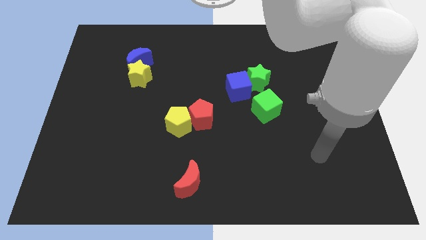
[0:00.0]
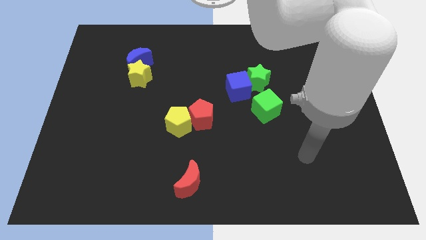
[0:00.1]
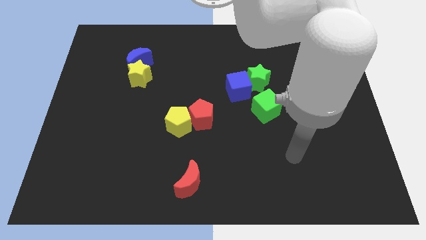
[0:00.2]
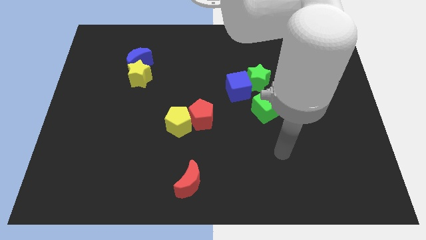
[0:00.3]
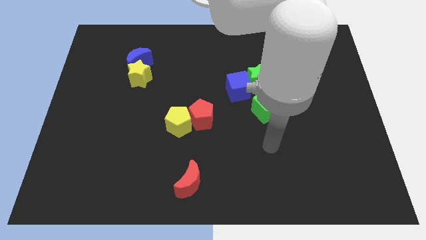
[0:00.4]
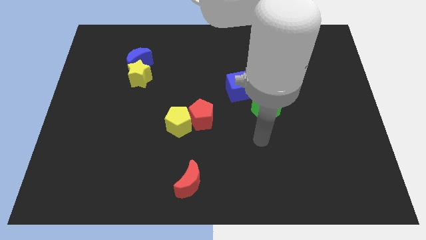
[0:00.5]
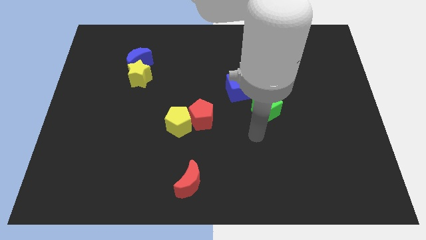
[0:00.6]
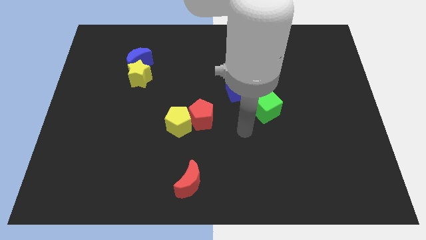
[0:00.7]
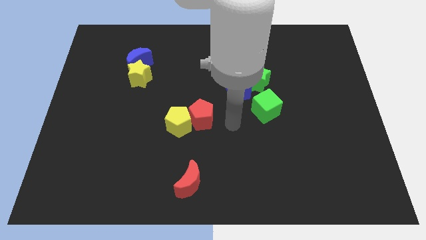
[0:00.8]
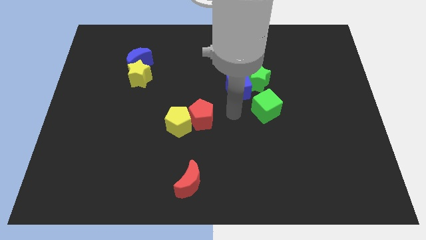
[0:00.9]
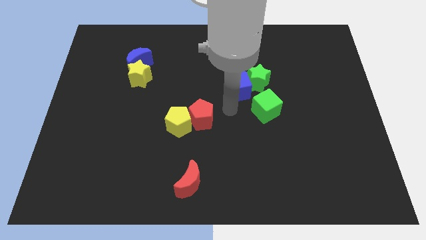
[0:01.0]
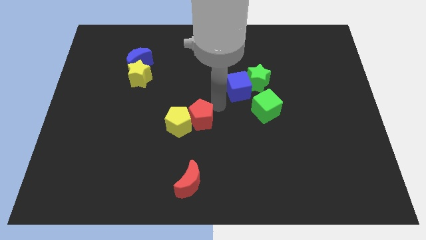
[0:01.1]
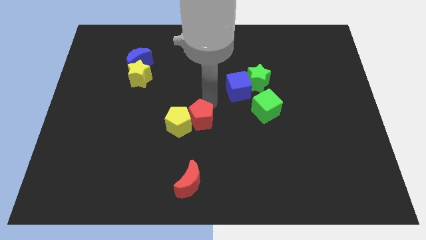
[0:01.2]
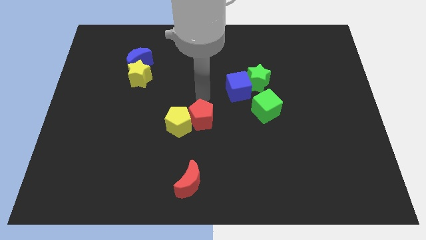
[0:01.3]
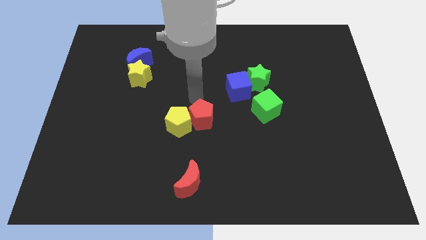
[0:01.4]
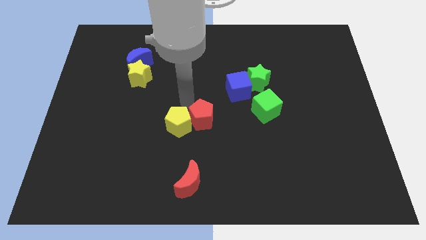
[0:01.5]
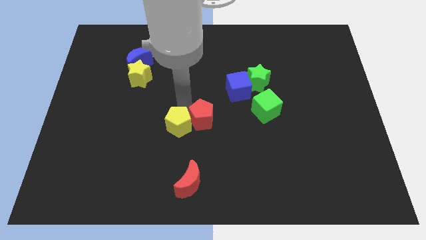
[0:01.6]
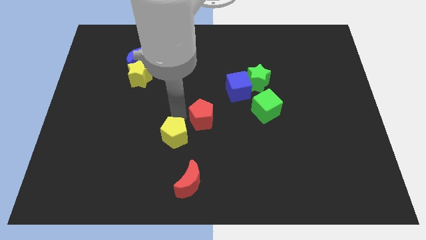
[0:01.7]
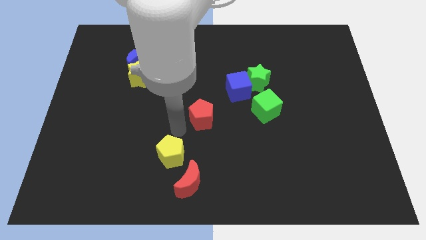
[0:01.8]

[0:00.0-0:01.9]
move the red pentagon away from the yellow pentagon

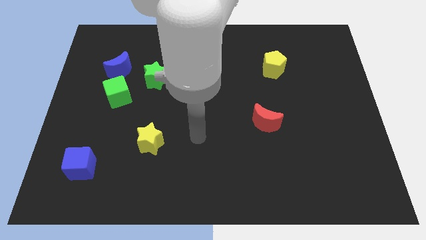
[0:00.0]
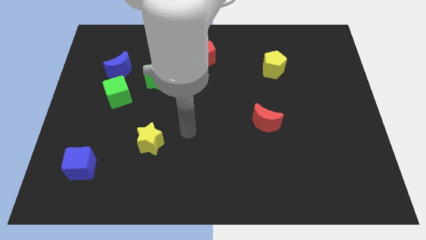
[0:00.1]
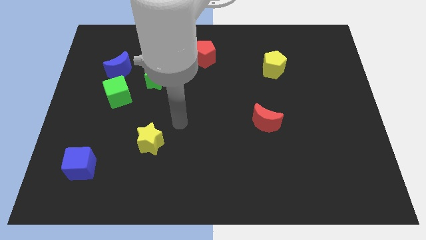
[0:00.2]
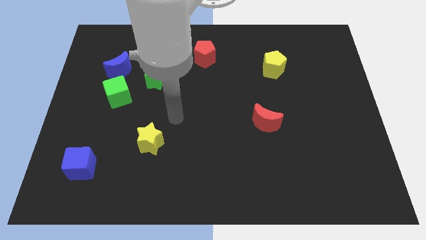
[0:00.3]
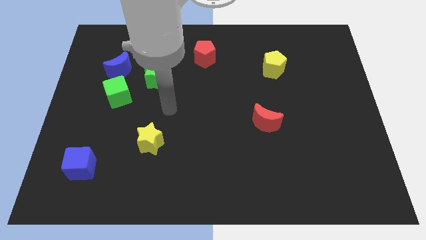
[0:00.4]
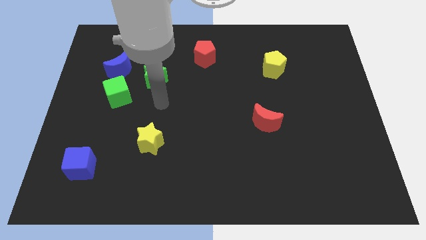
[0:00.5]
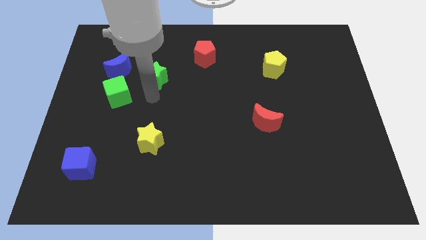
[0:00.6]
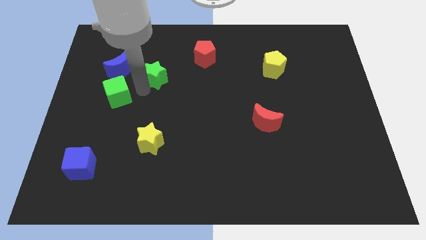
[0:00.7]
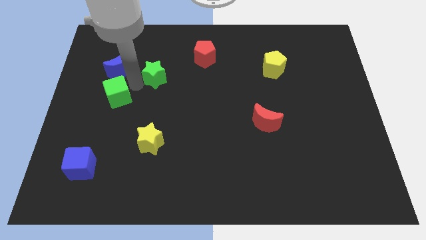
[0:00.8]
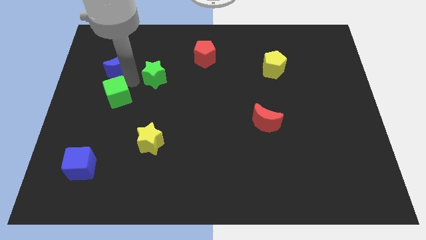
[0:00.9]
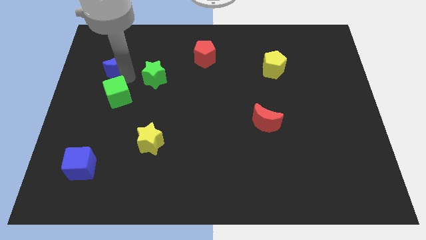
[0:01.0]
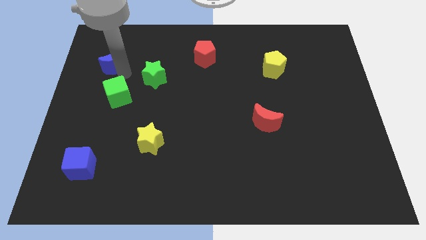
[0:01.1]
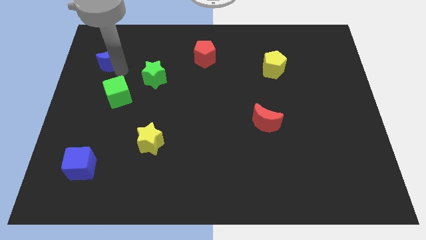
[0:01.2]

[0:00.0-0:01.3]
pull the blue moon apart from the green cube and green star

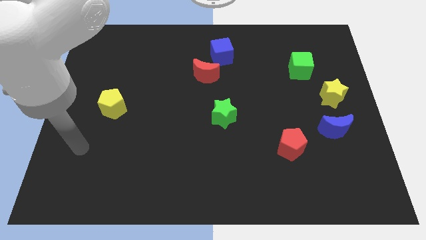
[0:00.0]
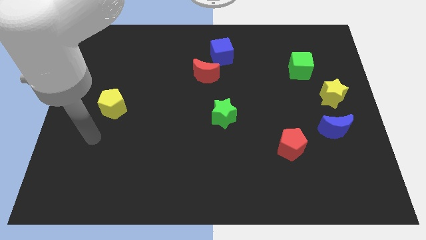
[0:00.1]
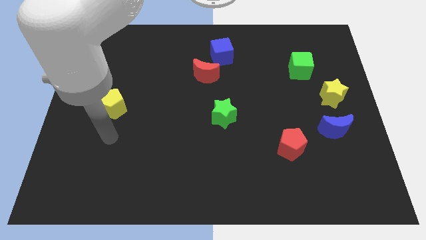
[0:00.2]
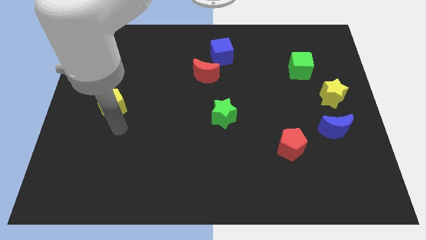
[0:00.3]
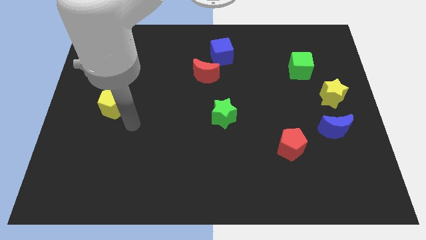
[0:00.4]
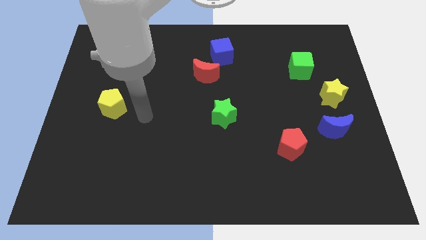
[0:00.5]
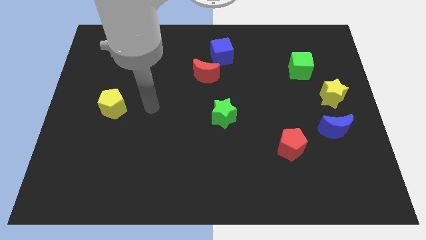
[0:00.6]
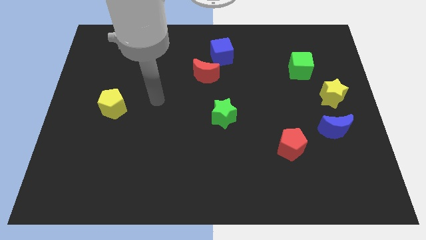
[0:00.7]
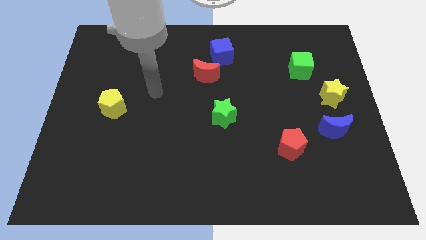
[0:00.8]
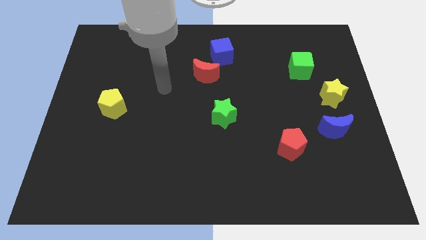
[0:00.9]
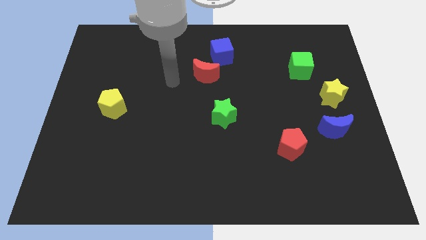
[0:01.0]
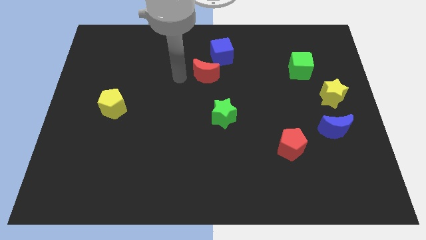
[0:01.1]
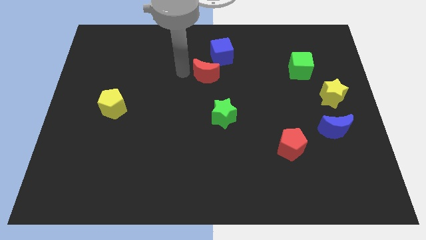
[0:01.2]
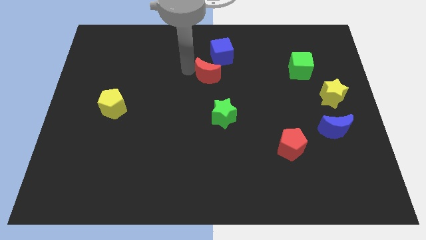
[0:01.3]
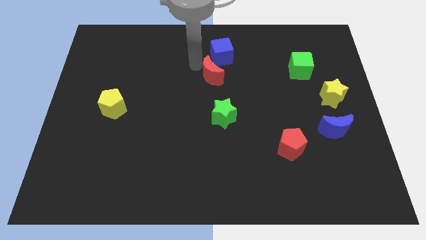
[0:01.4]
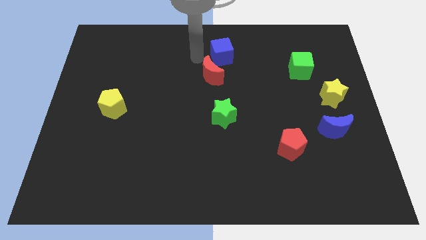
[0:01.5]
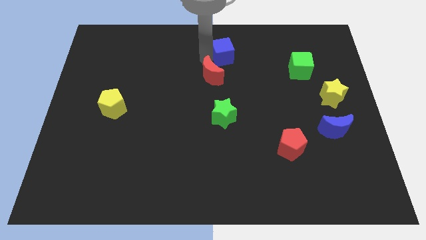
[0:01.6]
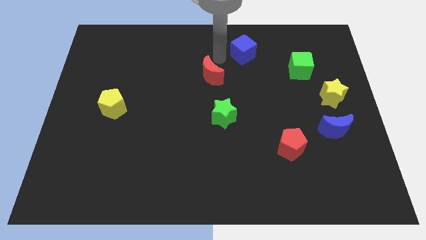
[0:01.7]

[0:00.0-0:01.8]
separate the red moon from the blue cube

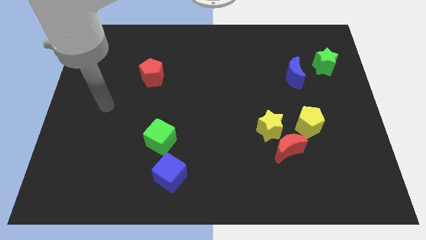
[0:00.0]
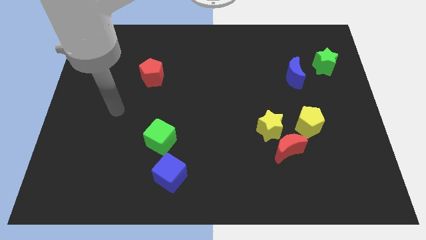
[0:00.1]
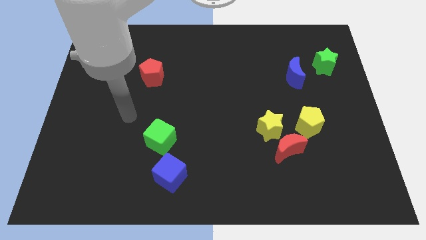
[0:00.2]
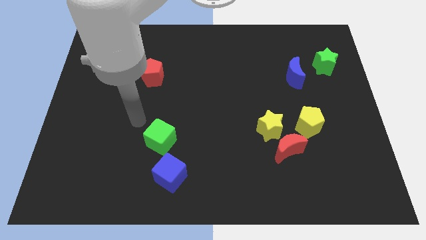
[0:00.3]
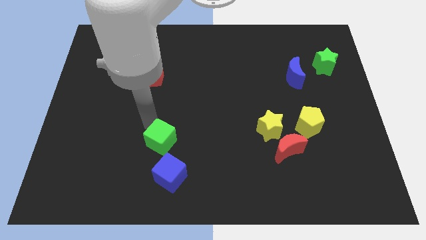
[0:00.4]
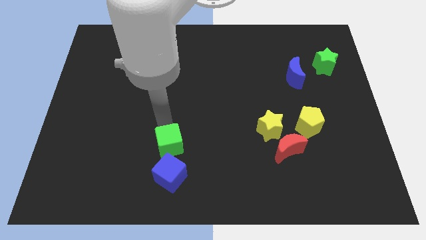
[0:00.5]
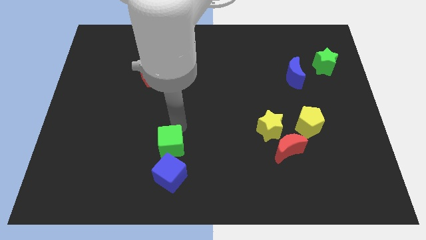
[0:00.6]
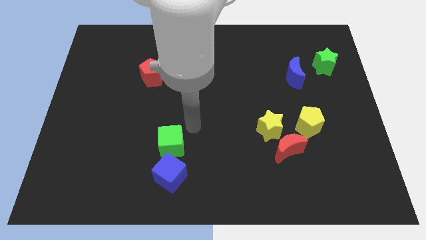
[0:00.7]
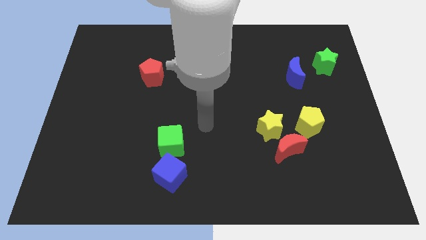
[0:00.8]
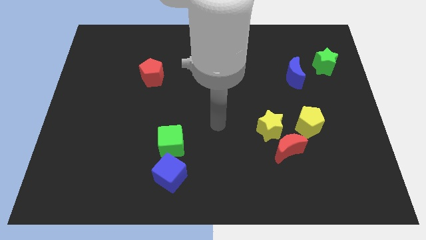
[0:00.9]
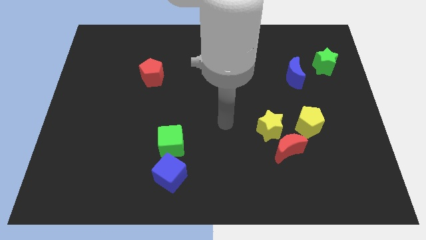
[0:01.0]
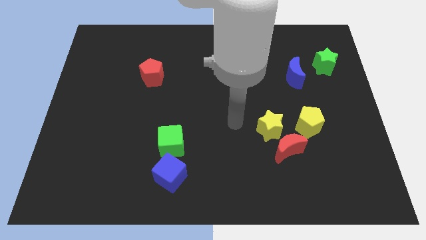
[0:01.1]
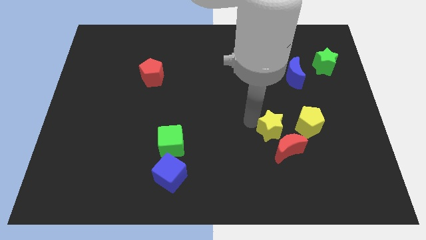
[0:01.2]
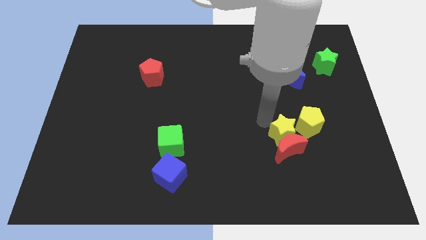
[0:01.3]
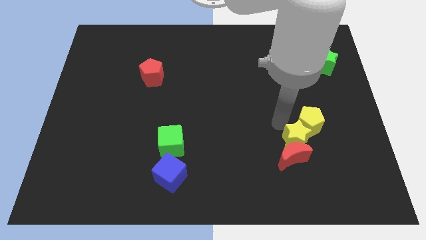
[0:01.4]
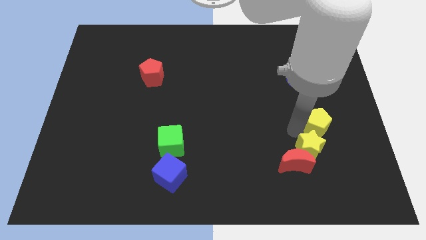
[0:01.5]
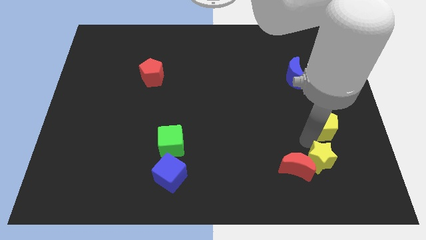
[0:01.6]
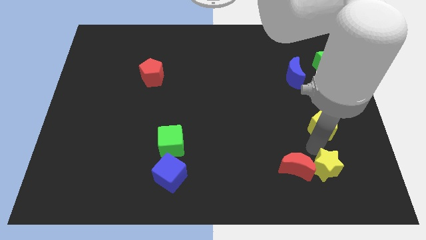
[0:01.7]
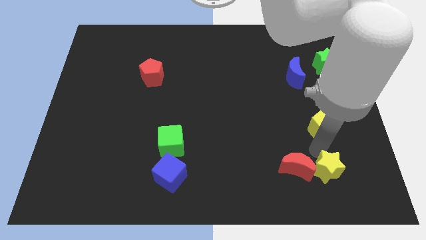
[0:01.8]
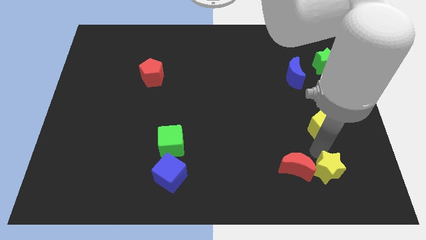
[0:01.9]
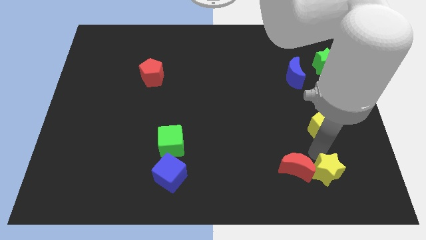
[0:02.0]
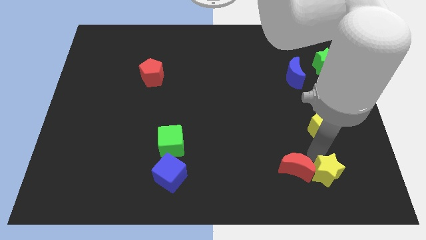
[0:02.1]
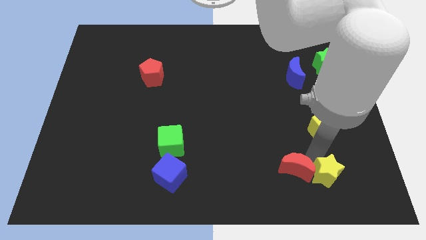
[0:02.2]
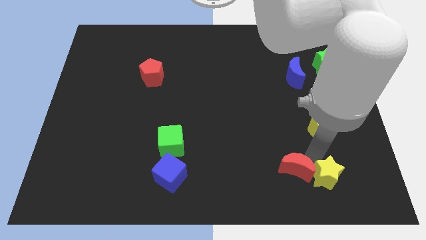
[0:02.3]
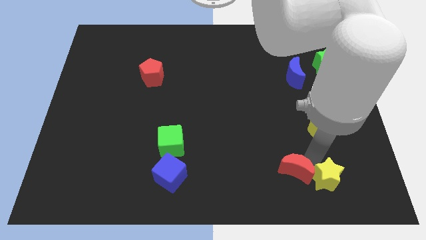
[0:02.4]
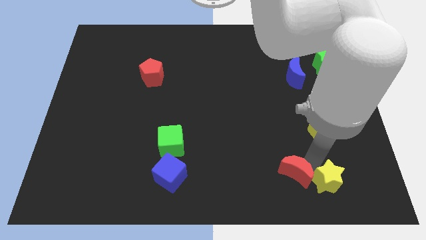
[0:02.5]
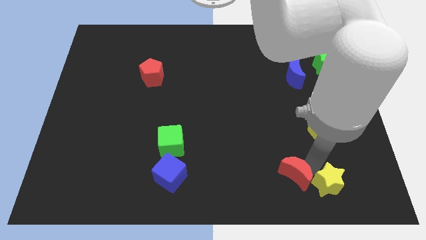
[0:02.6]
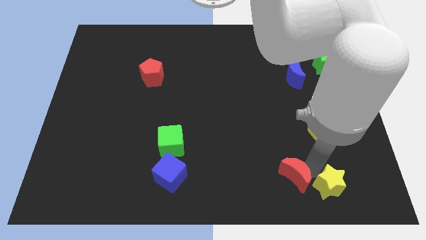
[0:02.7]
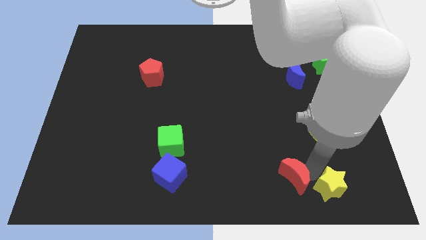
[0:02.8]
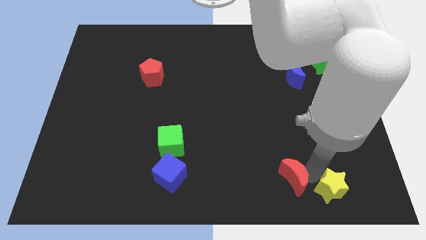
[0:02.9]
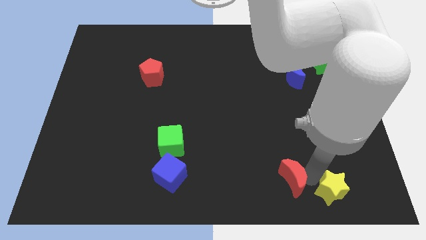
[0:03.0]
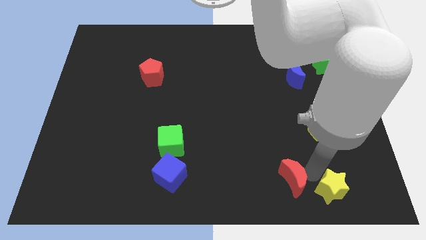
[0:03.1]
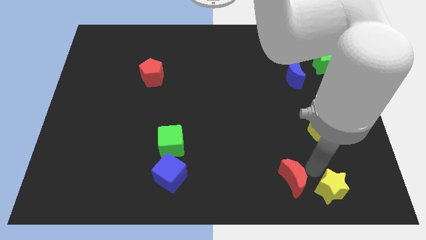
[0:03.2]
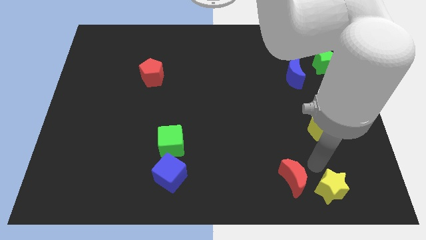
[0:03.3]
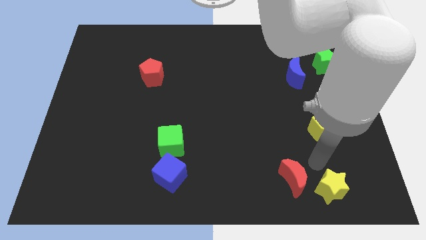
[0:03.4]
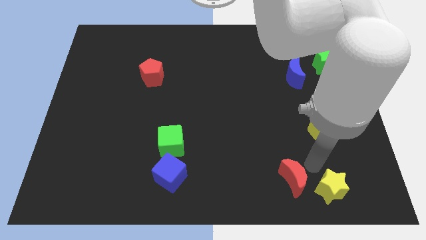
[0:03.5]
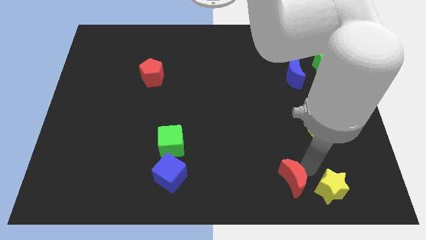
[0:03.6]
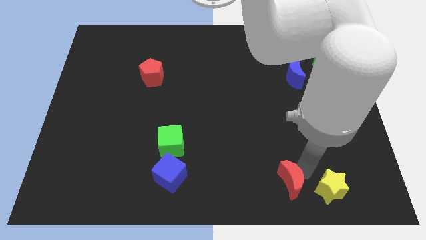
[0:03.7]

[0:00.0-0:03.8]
move the red moon away from the yellow star and yellow pentagon

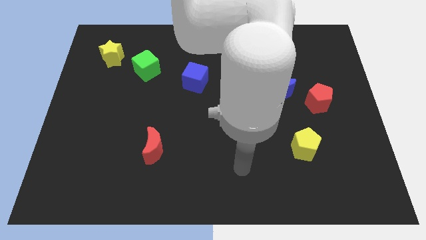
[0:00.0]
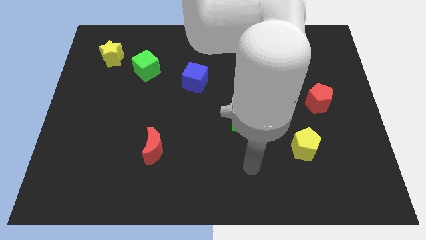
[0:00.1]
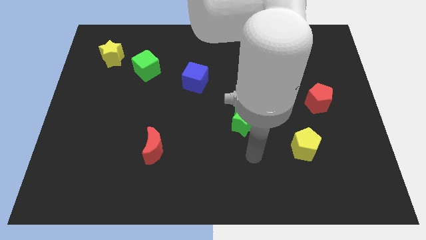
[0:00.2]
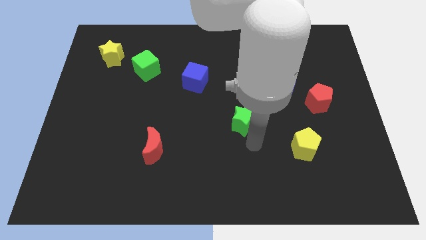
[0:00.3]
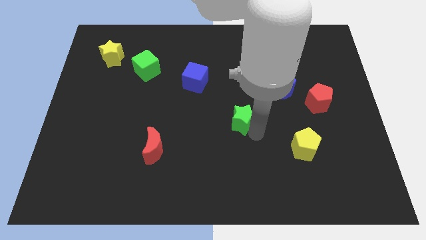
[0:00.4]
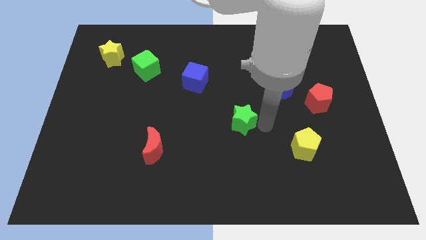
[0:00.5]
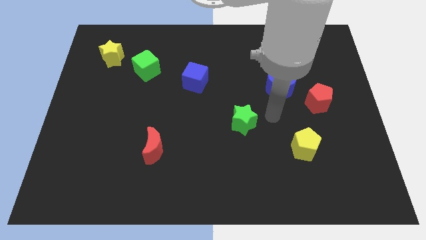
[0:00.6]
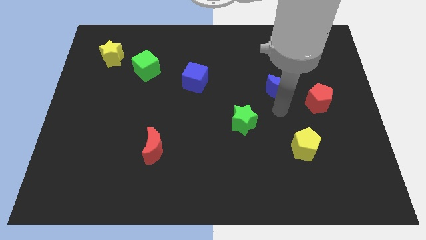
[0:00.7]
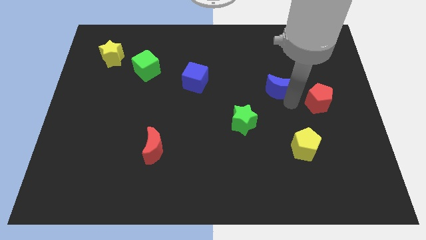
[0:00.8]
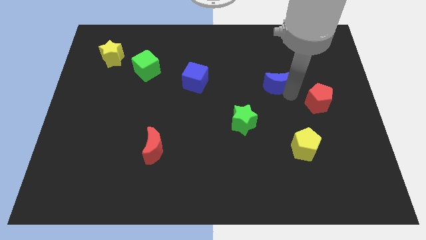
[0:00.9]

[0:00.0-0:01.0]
pull the red pentagon apart from the blue moon
